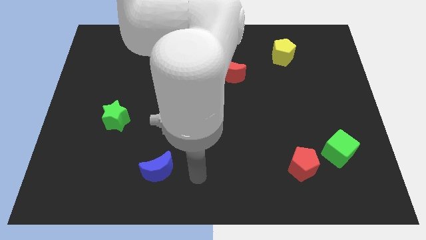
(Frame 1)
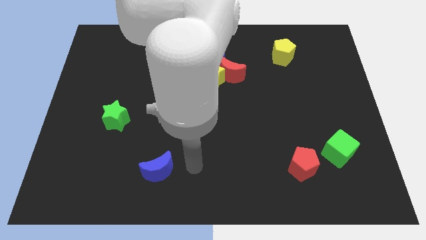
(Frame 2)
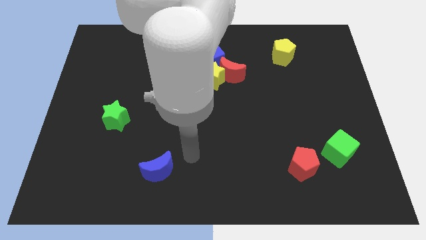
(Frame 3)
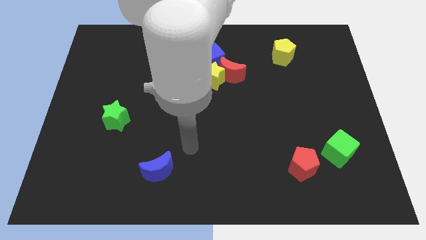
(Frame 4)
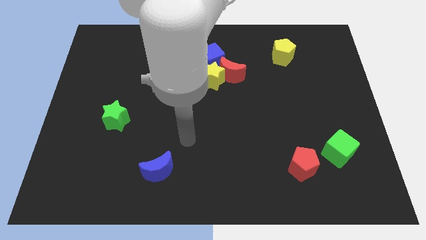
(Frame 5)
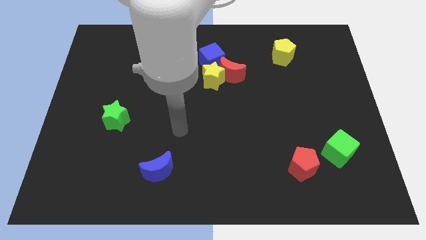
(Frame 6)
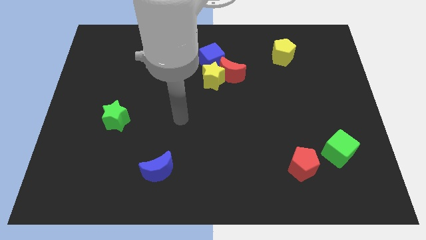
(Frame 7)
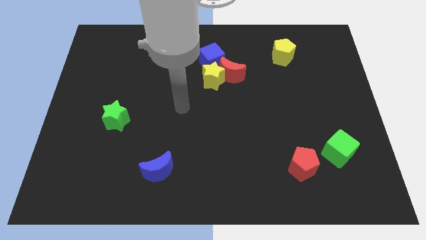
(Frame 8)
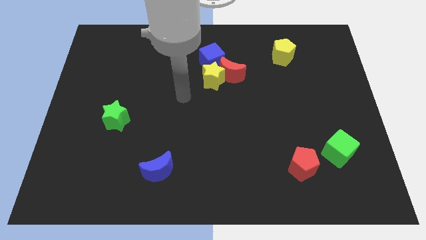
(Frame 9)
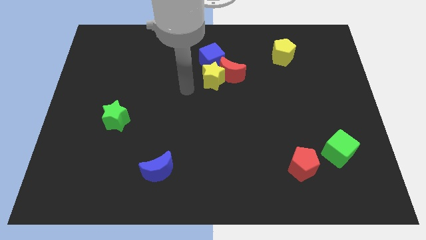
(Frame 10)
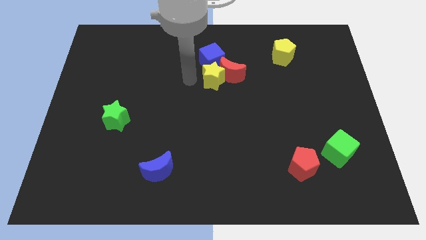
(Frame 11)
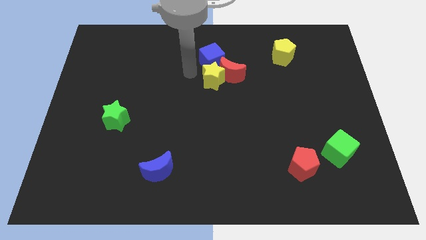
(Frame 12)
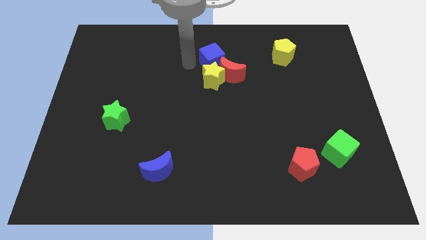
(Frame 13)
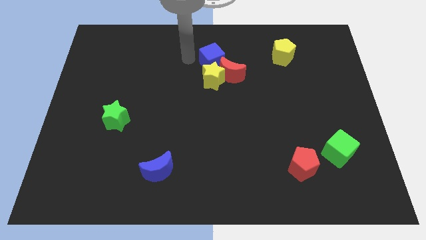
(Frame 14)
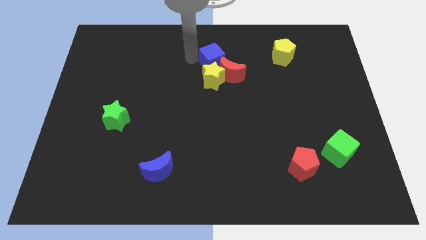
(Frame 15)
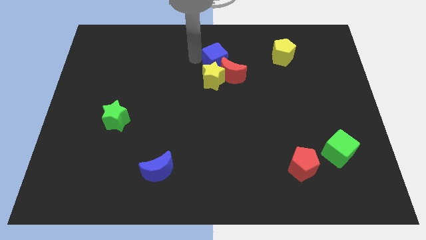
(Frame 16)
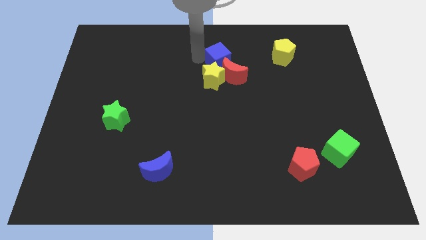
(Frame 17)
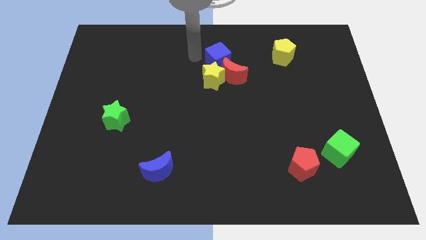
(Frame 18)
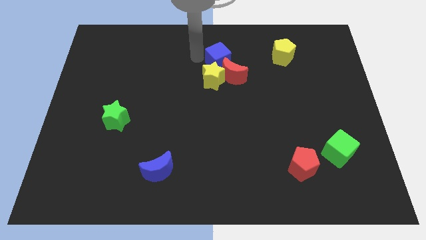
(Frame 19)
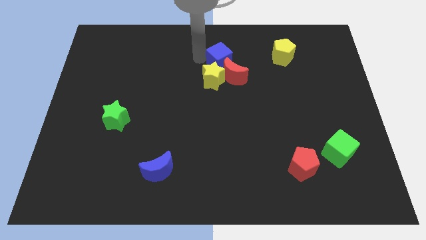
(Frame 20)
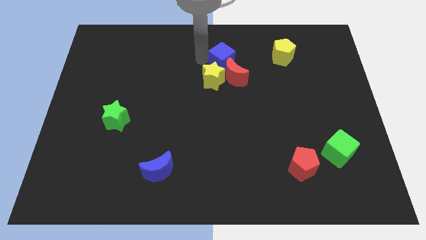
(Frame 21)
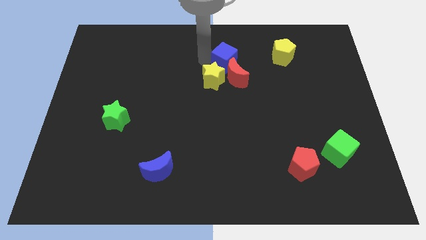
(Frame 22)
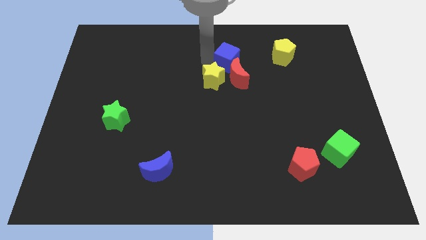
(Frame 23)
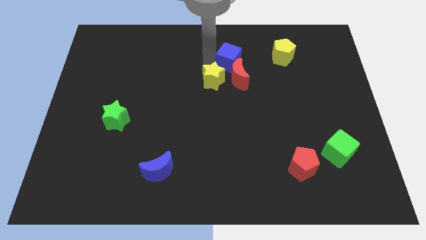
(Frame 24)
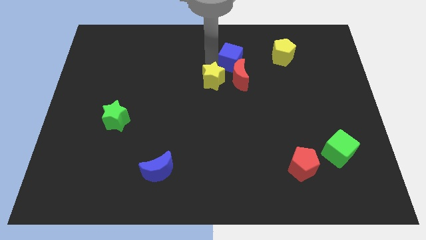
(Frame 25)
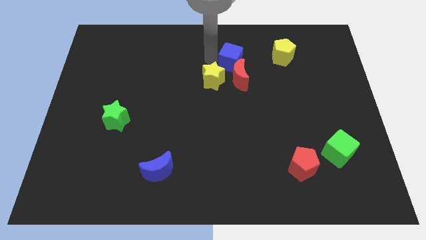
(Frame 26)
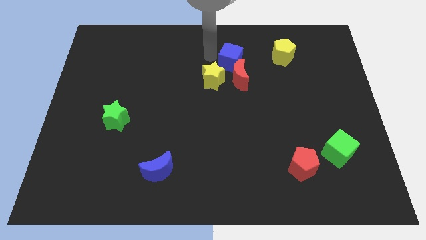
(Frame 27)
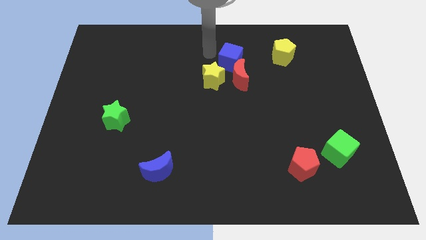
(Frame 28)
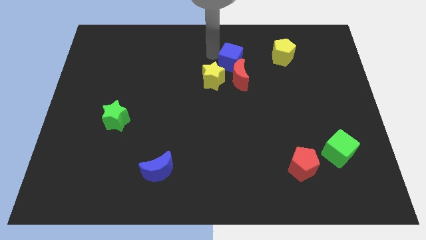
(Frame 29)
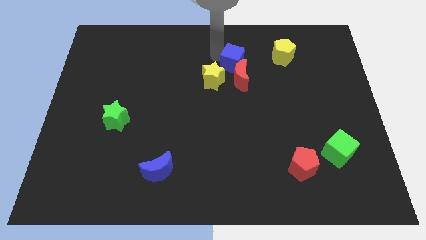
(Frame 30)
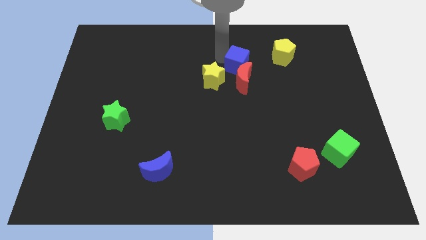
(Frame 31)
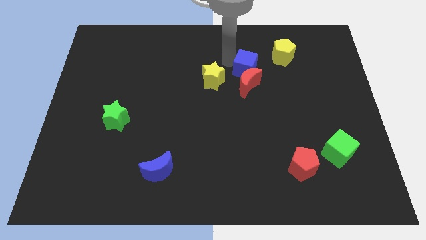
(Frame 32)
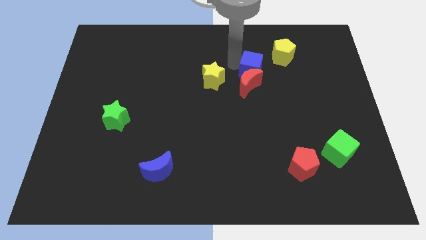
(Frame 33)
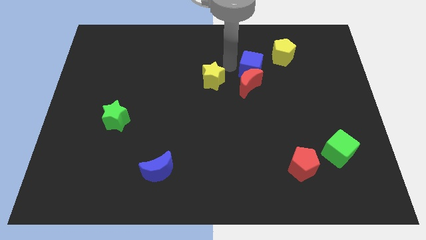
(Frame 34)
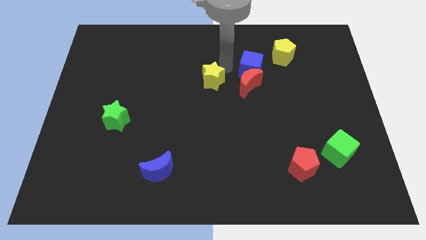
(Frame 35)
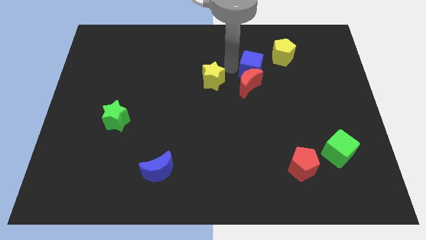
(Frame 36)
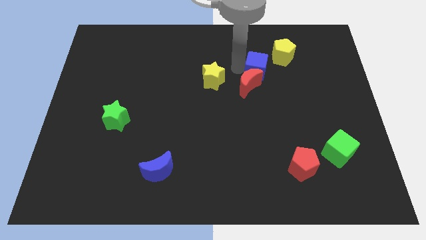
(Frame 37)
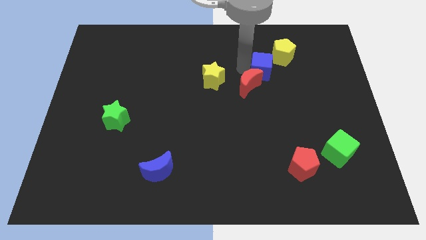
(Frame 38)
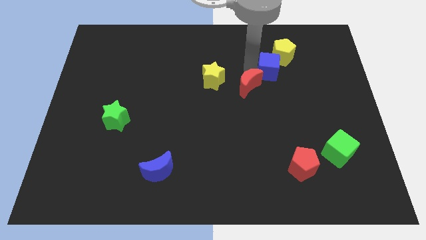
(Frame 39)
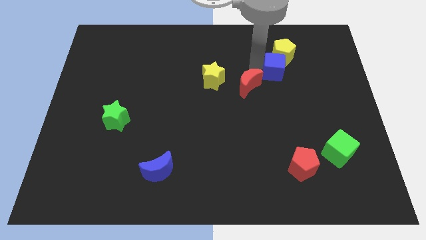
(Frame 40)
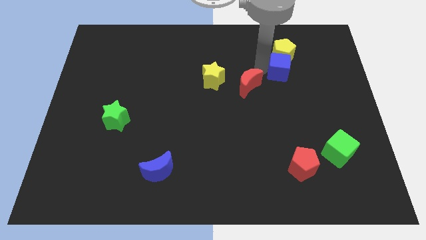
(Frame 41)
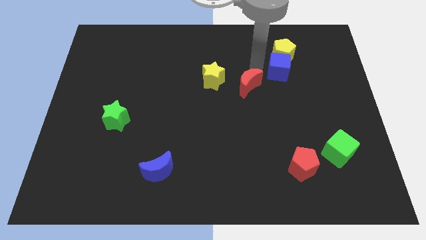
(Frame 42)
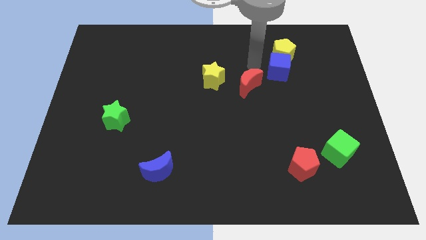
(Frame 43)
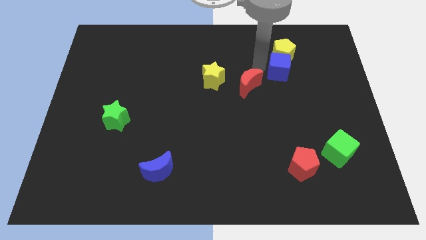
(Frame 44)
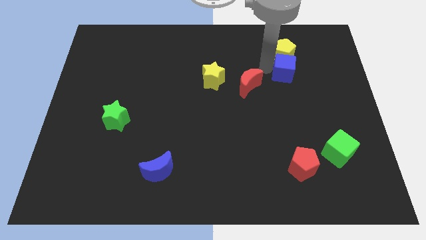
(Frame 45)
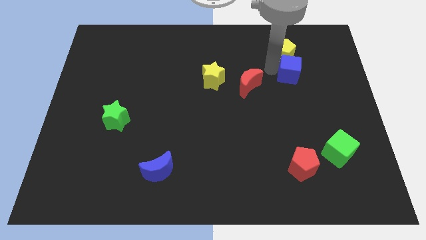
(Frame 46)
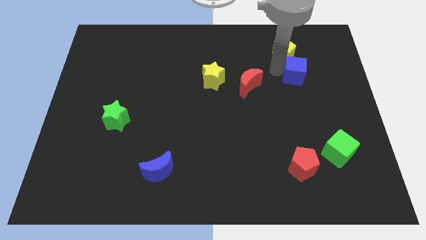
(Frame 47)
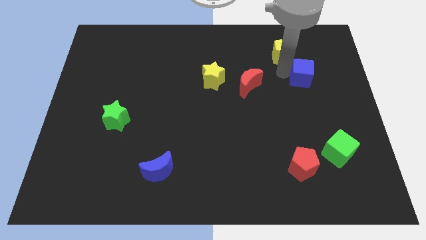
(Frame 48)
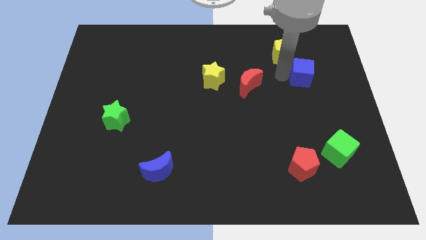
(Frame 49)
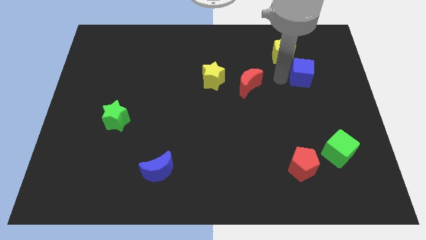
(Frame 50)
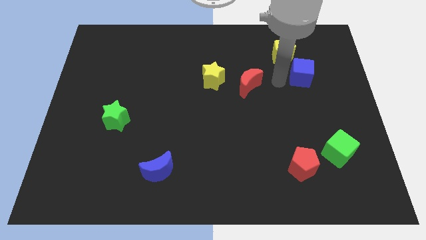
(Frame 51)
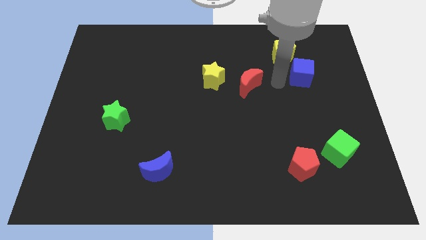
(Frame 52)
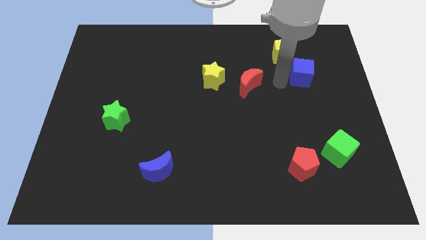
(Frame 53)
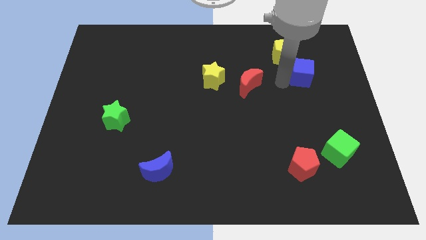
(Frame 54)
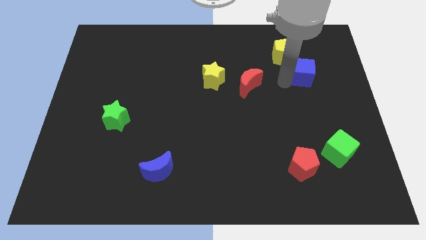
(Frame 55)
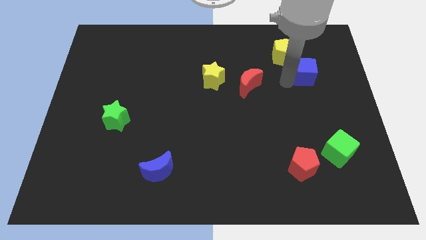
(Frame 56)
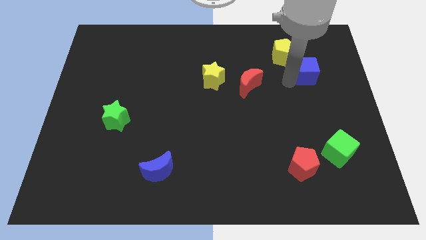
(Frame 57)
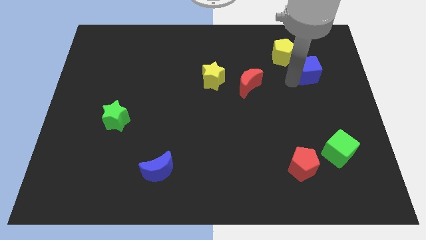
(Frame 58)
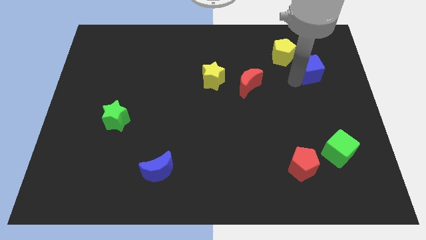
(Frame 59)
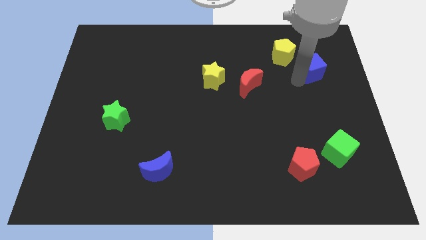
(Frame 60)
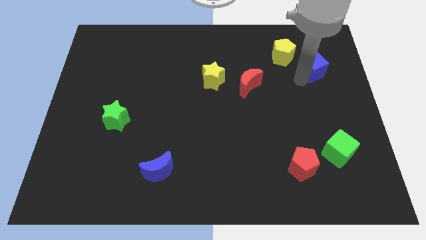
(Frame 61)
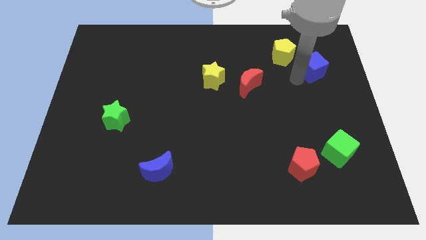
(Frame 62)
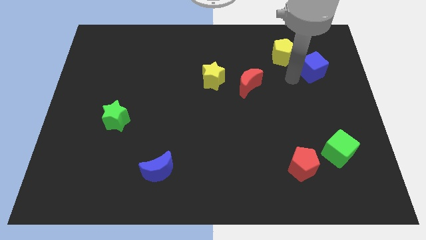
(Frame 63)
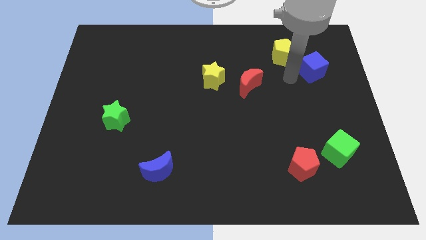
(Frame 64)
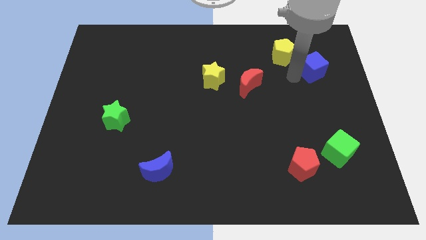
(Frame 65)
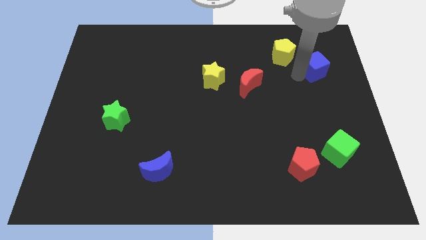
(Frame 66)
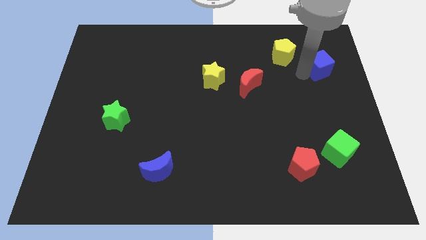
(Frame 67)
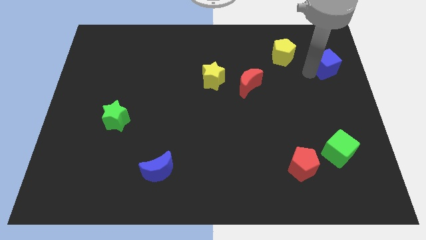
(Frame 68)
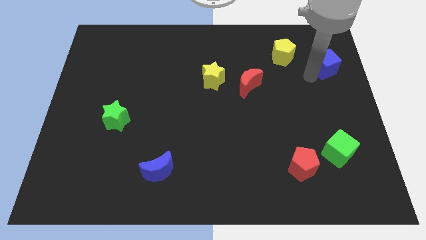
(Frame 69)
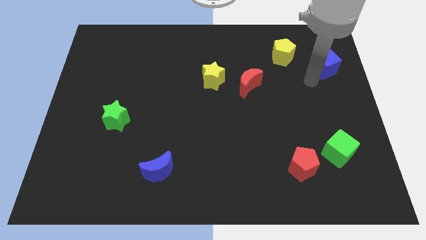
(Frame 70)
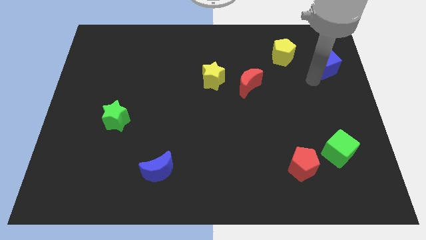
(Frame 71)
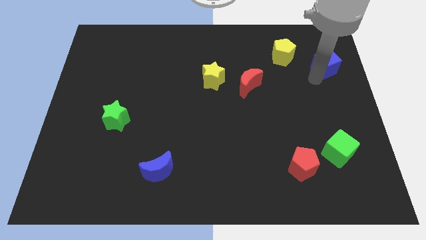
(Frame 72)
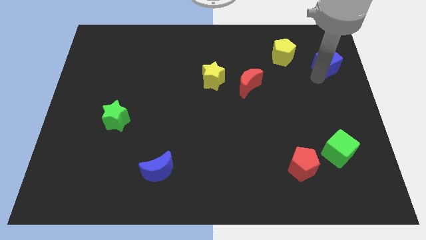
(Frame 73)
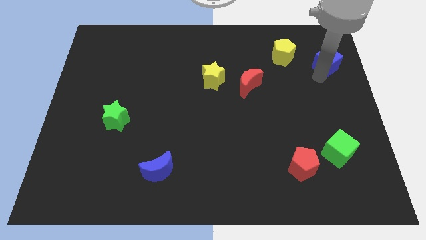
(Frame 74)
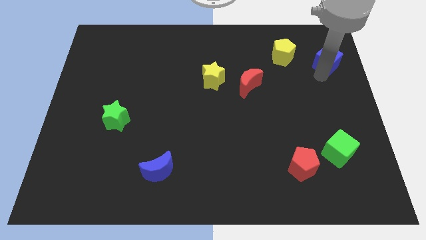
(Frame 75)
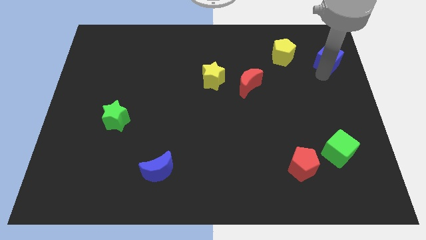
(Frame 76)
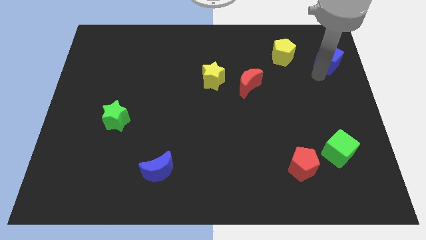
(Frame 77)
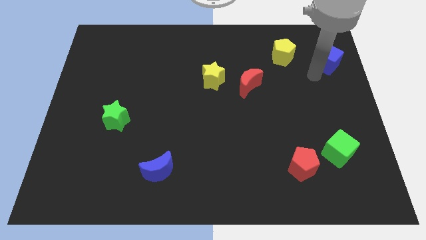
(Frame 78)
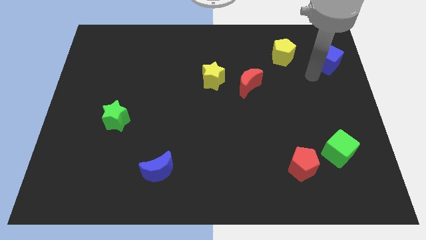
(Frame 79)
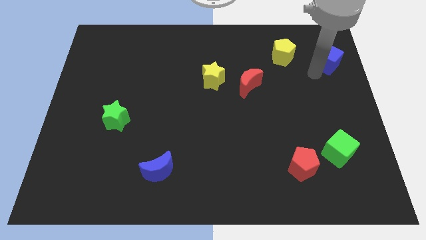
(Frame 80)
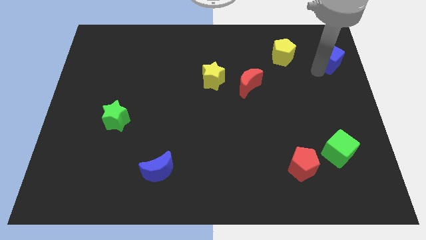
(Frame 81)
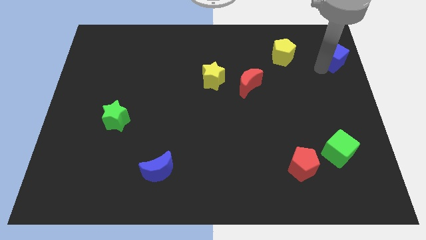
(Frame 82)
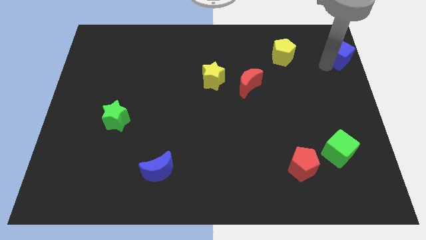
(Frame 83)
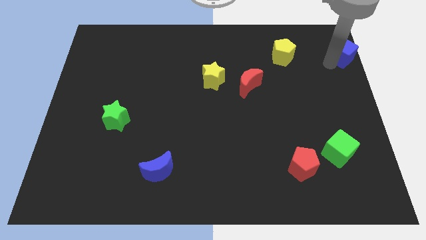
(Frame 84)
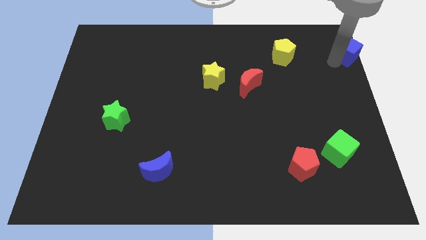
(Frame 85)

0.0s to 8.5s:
move the blue cube to the top right corner
